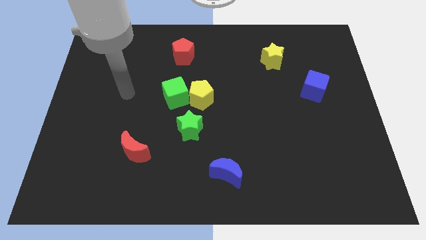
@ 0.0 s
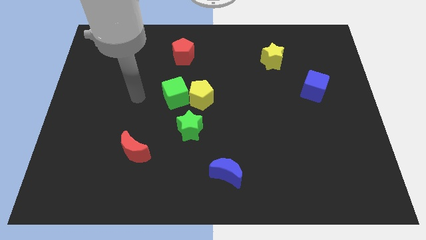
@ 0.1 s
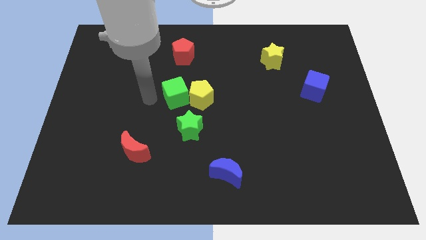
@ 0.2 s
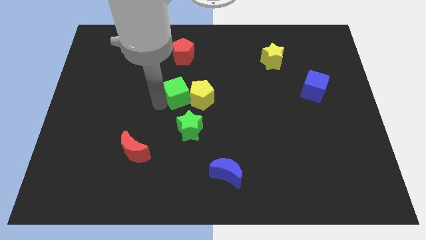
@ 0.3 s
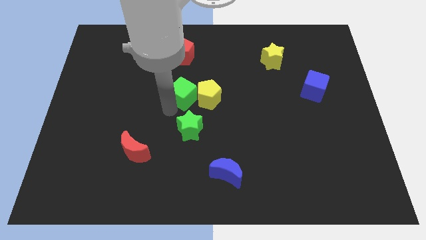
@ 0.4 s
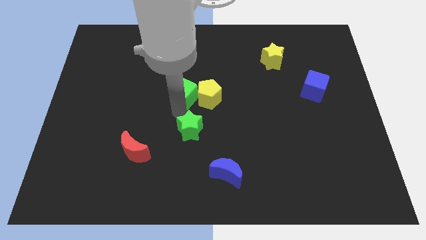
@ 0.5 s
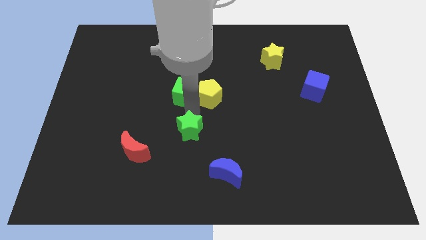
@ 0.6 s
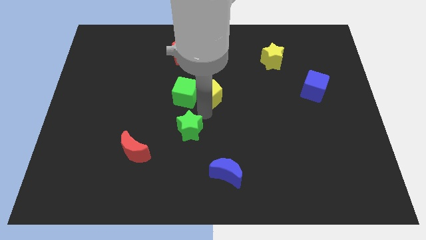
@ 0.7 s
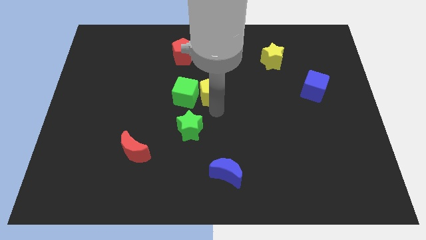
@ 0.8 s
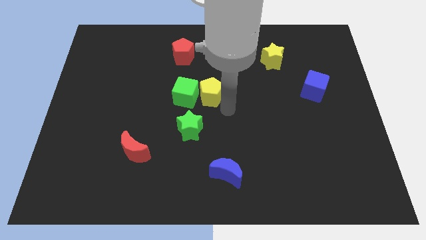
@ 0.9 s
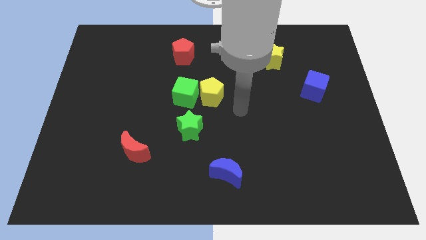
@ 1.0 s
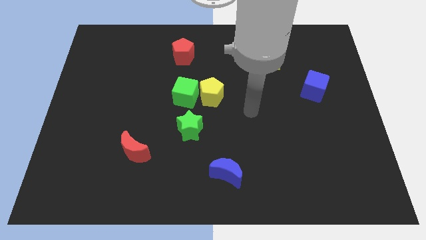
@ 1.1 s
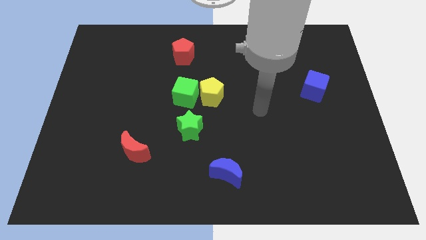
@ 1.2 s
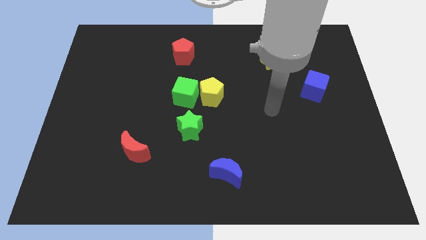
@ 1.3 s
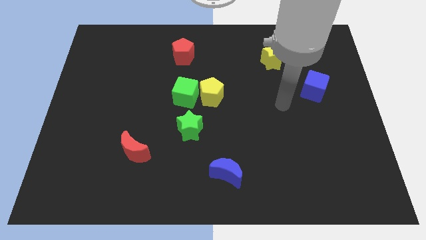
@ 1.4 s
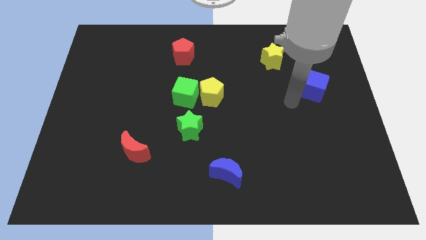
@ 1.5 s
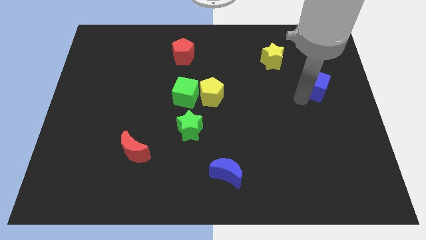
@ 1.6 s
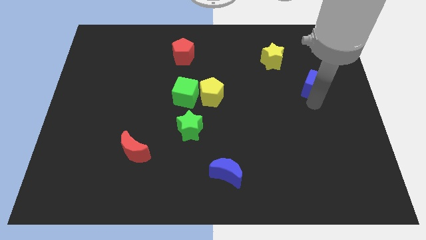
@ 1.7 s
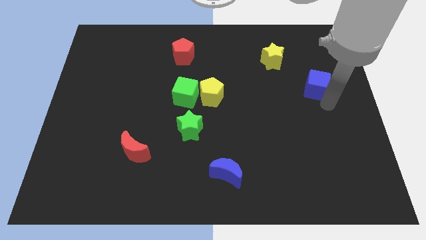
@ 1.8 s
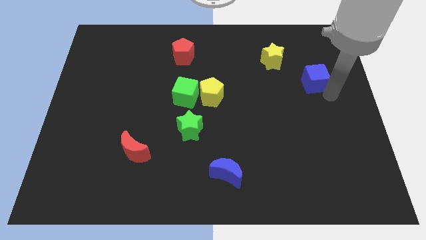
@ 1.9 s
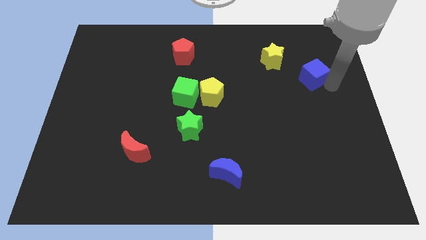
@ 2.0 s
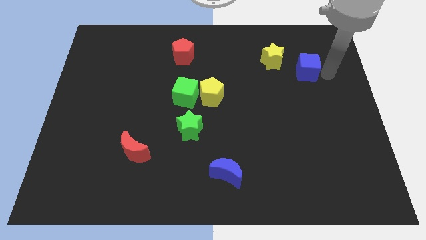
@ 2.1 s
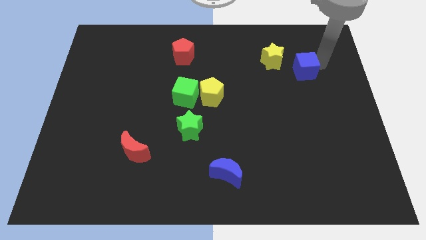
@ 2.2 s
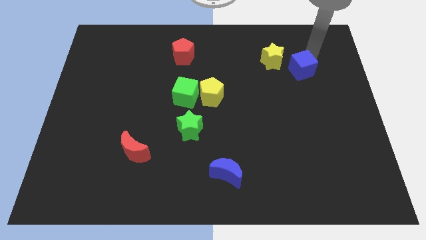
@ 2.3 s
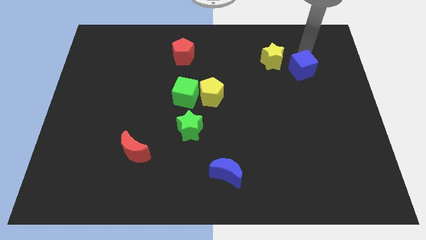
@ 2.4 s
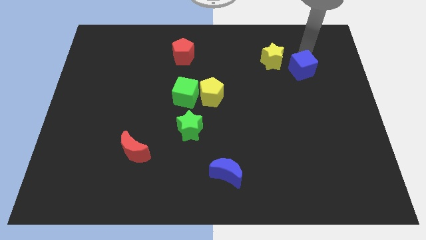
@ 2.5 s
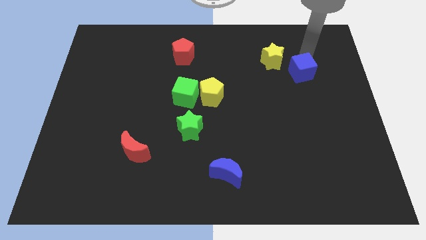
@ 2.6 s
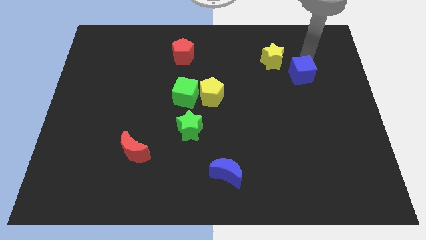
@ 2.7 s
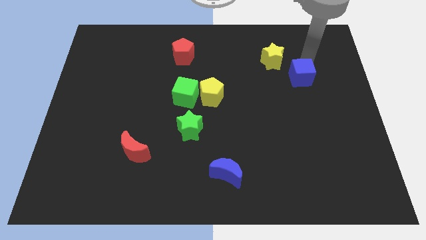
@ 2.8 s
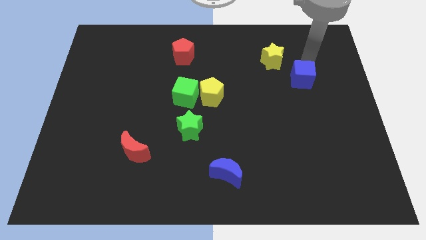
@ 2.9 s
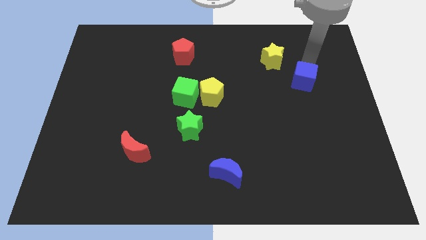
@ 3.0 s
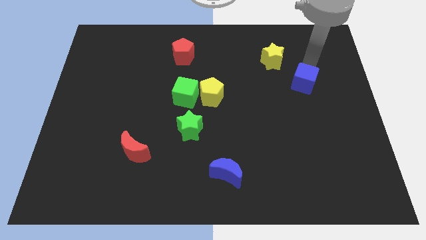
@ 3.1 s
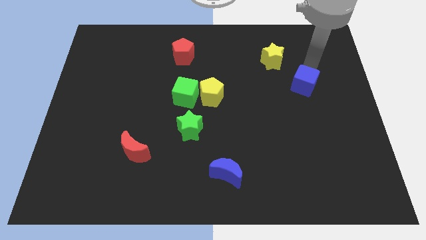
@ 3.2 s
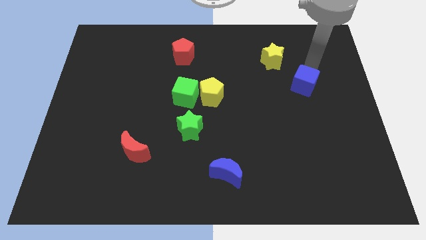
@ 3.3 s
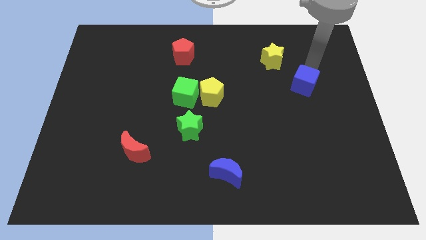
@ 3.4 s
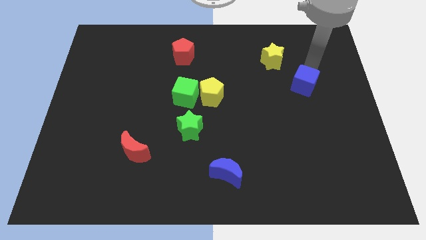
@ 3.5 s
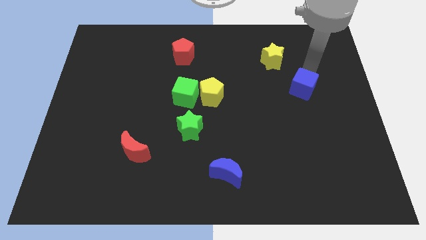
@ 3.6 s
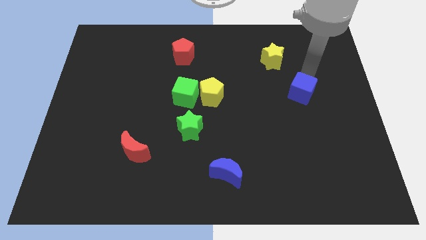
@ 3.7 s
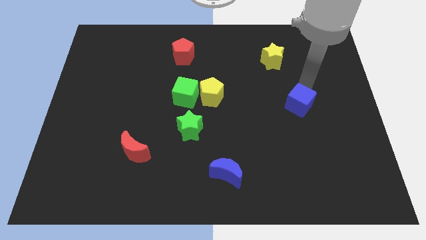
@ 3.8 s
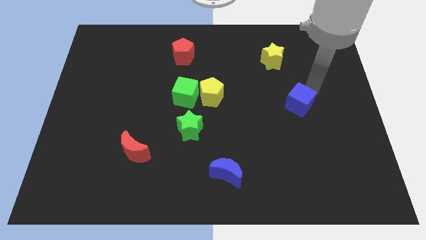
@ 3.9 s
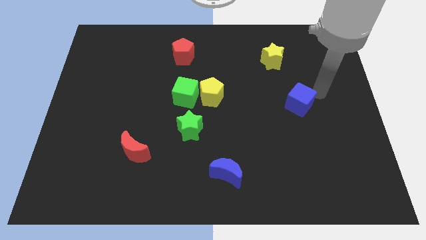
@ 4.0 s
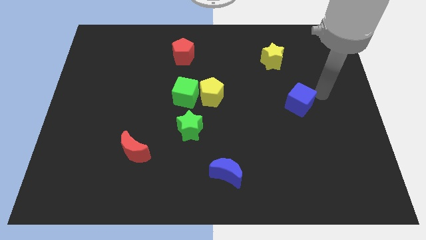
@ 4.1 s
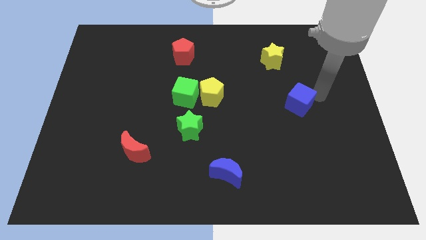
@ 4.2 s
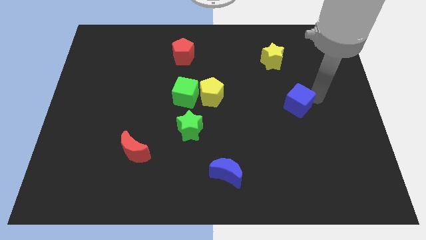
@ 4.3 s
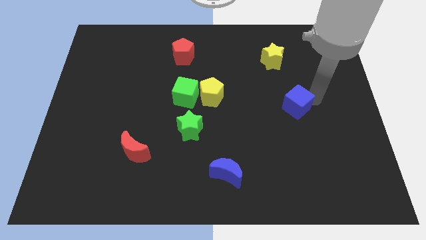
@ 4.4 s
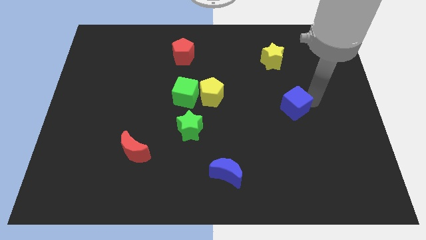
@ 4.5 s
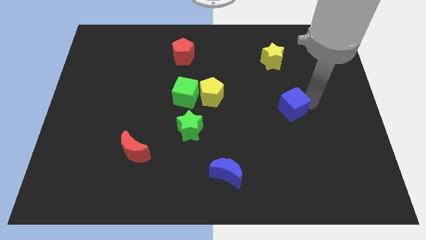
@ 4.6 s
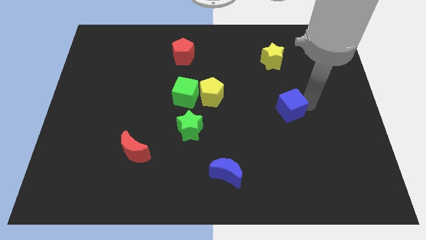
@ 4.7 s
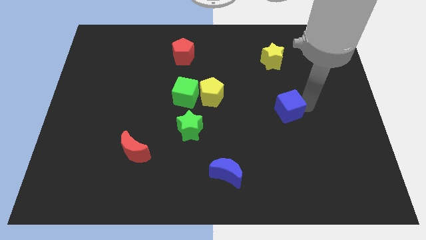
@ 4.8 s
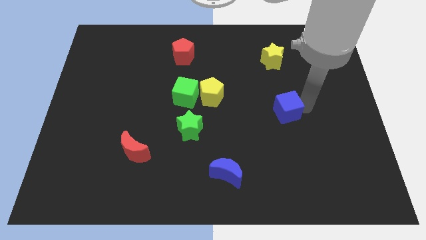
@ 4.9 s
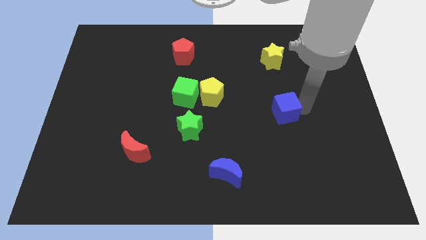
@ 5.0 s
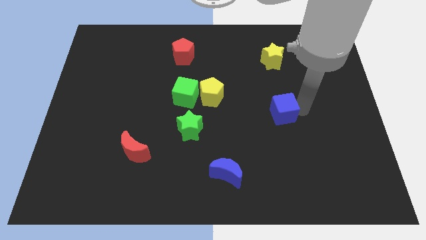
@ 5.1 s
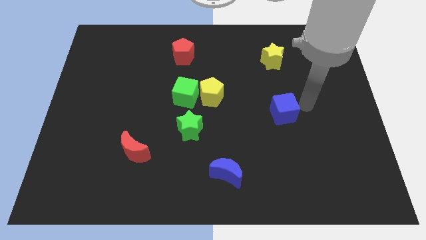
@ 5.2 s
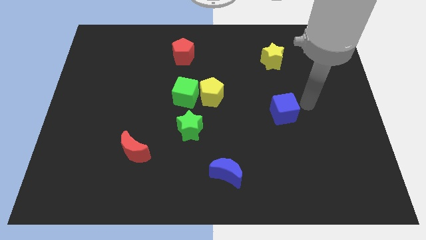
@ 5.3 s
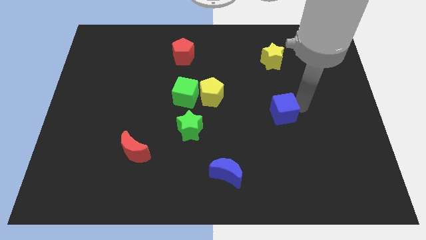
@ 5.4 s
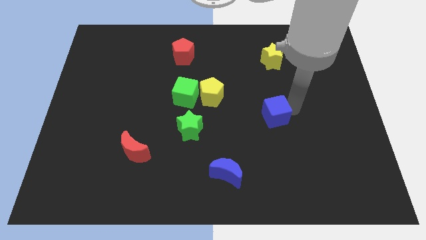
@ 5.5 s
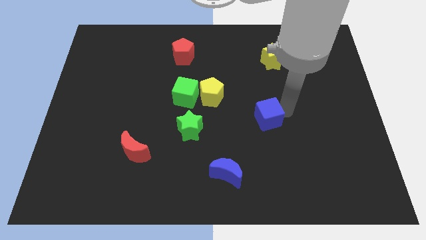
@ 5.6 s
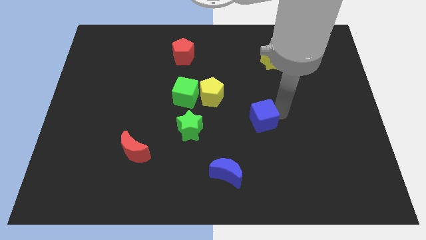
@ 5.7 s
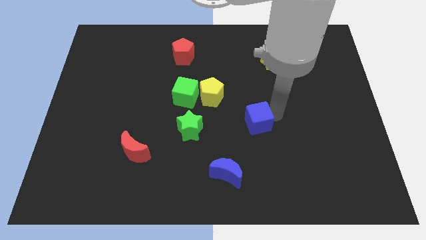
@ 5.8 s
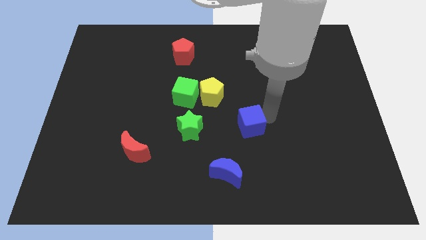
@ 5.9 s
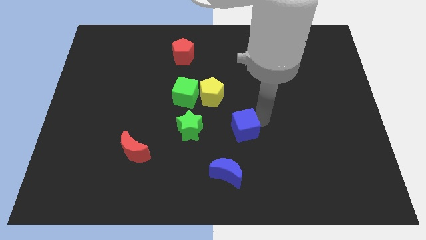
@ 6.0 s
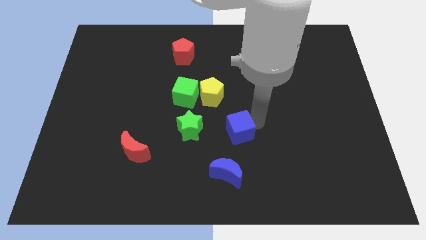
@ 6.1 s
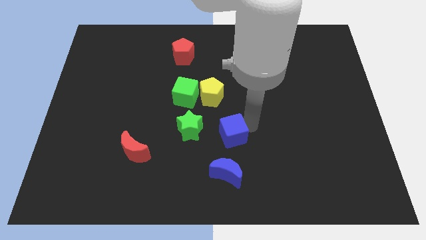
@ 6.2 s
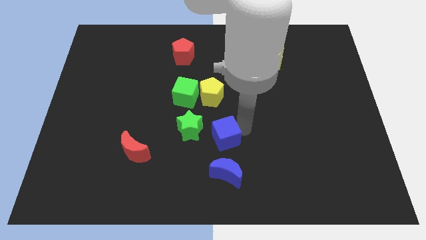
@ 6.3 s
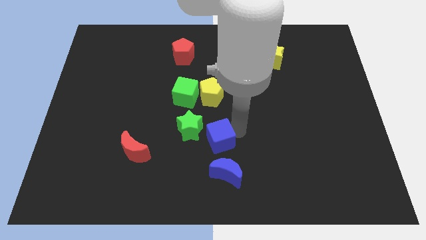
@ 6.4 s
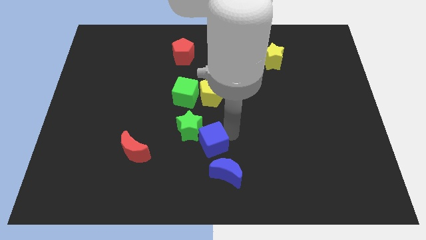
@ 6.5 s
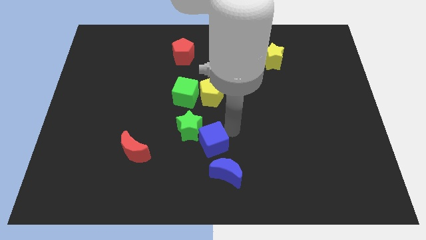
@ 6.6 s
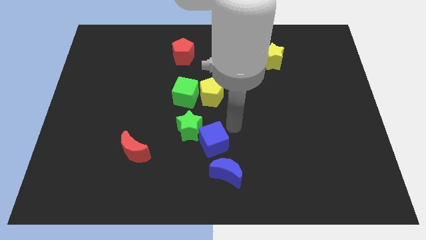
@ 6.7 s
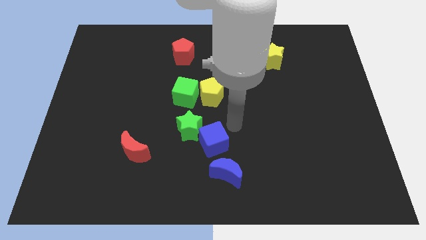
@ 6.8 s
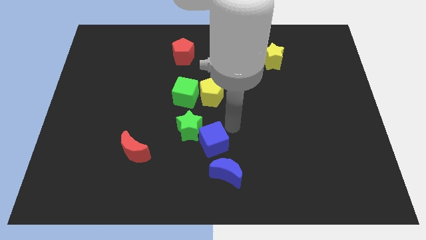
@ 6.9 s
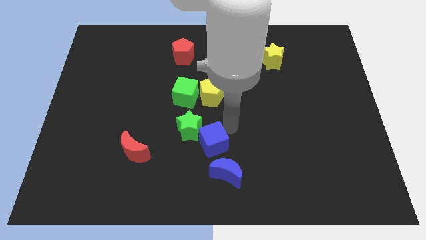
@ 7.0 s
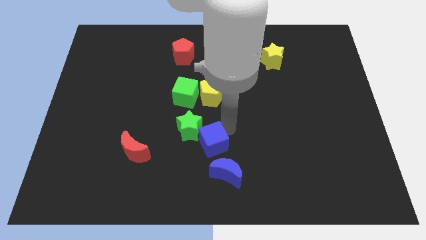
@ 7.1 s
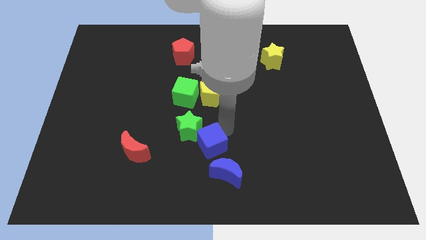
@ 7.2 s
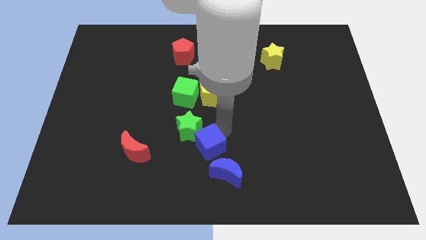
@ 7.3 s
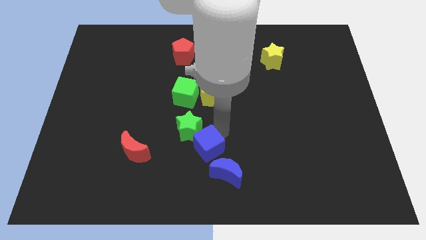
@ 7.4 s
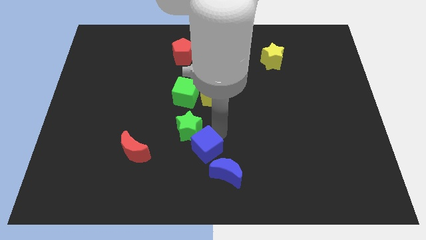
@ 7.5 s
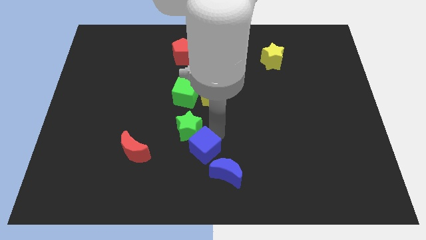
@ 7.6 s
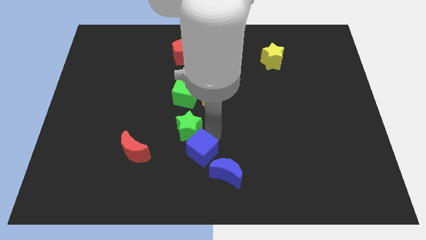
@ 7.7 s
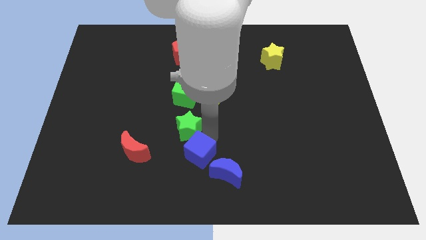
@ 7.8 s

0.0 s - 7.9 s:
slide the blue cube to the left of the blue moon
